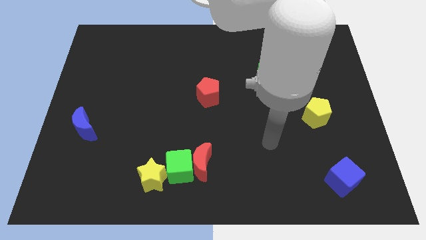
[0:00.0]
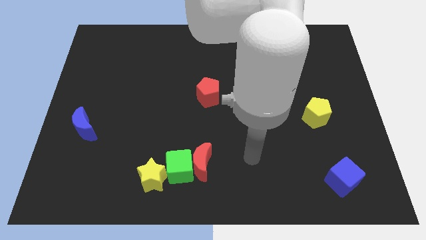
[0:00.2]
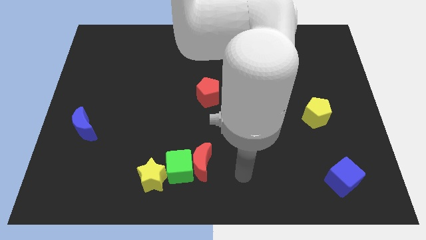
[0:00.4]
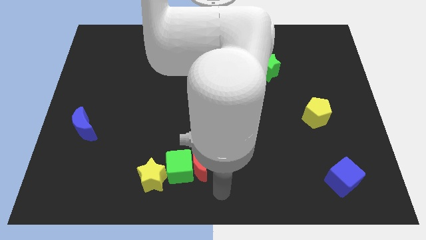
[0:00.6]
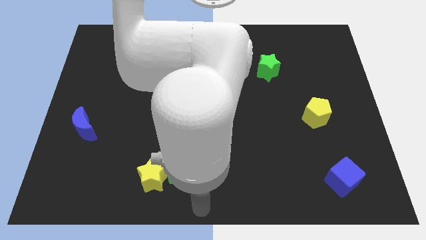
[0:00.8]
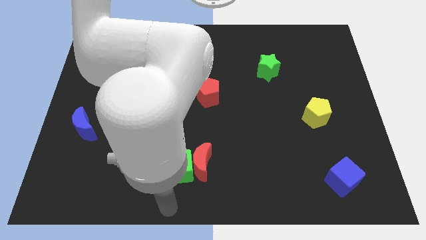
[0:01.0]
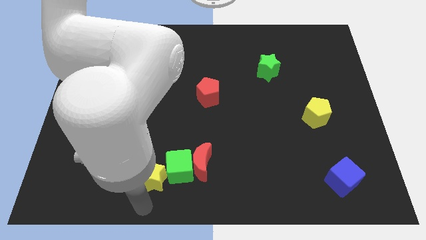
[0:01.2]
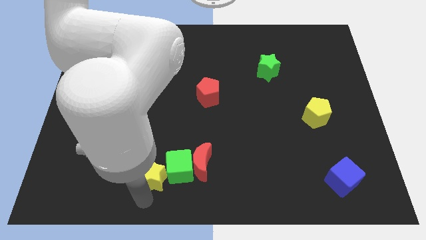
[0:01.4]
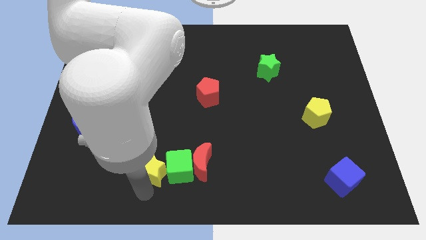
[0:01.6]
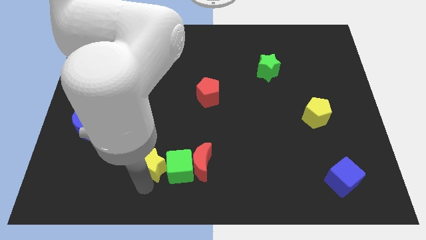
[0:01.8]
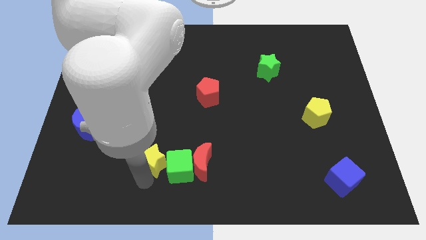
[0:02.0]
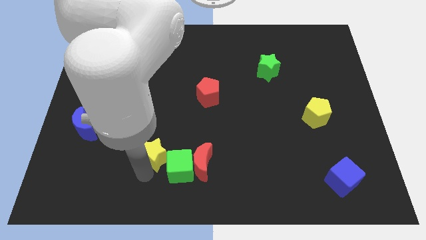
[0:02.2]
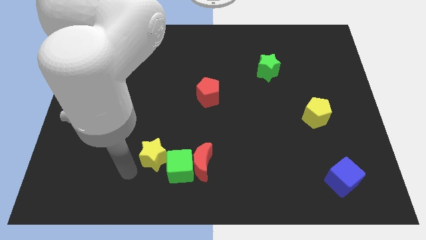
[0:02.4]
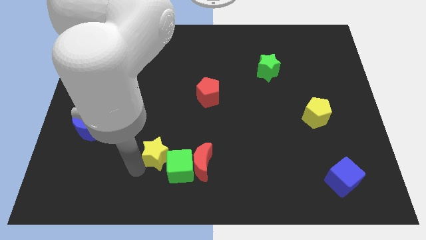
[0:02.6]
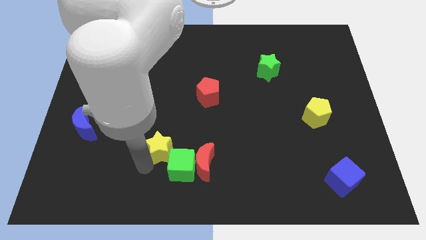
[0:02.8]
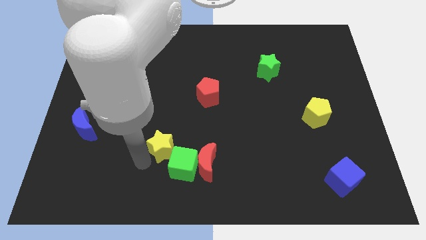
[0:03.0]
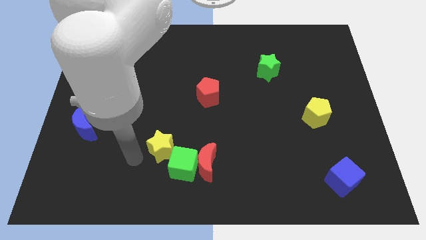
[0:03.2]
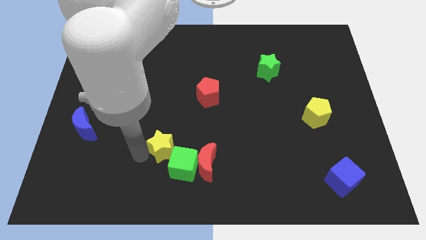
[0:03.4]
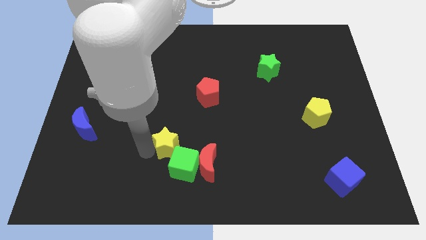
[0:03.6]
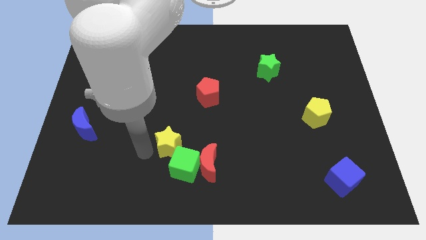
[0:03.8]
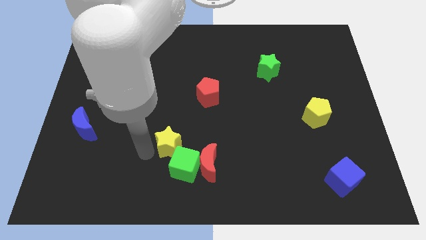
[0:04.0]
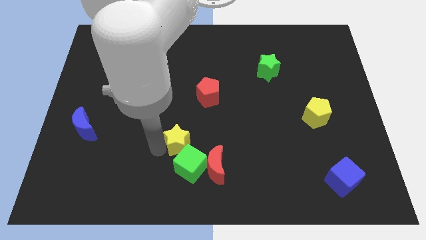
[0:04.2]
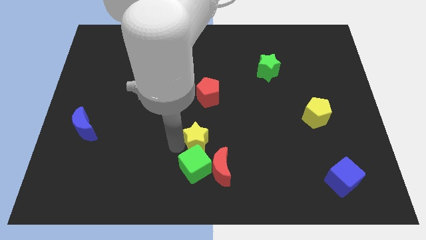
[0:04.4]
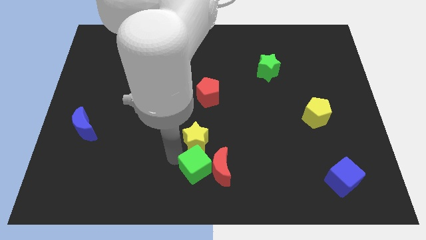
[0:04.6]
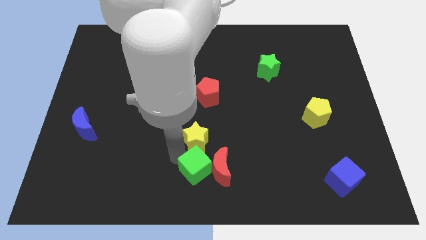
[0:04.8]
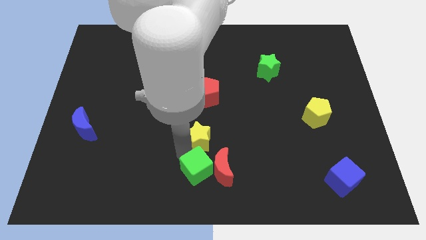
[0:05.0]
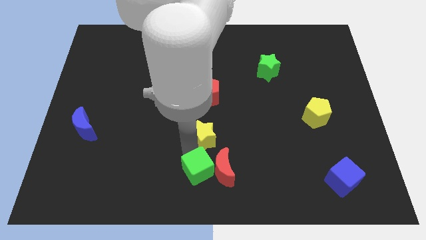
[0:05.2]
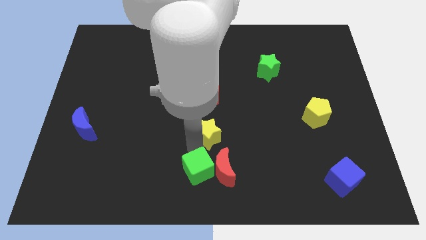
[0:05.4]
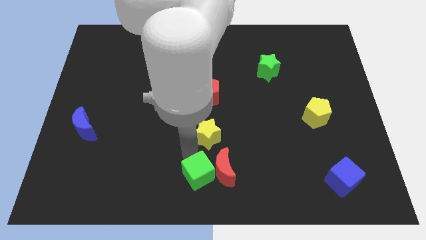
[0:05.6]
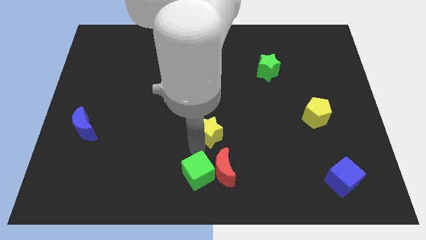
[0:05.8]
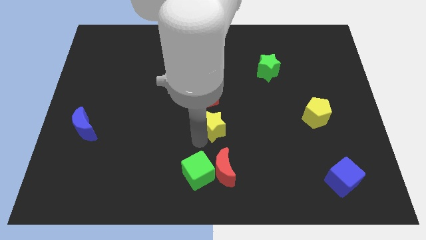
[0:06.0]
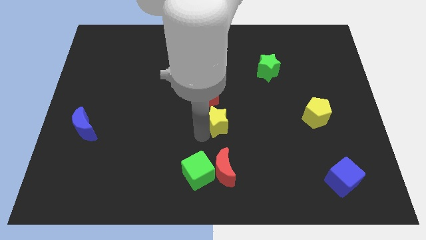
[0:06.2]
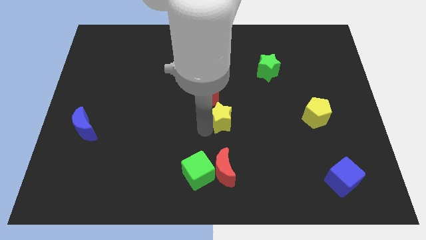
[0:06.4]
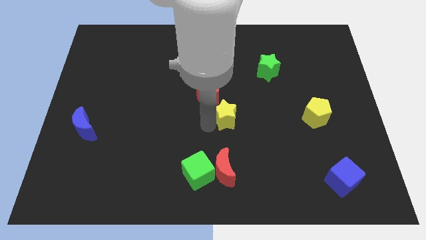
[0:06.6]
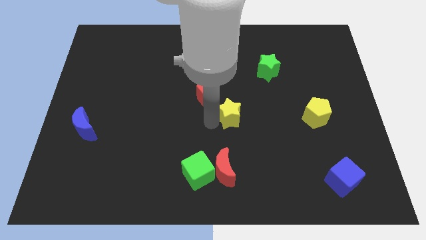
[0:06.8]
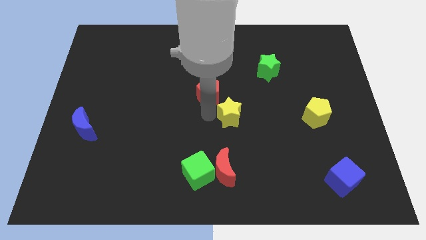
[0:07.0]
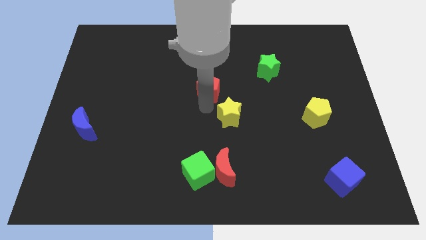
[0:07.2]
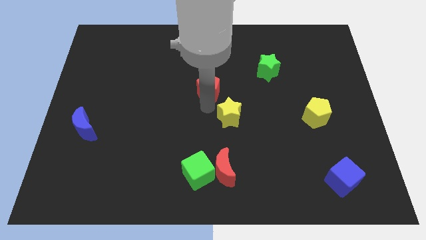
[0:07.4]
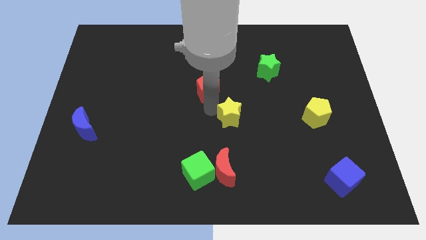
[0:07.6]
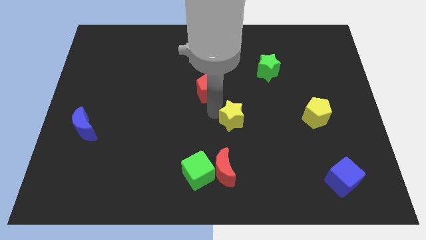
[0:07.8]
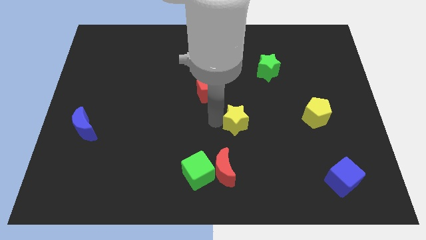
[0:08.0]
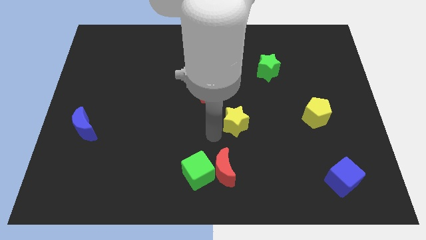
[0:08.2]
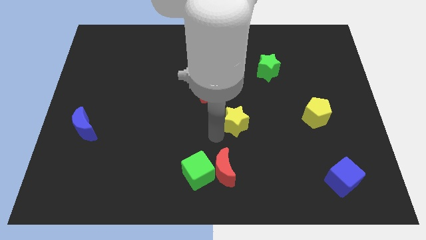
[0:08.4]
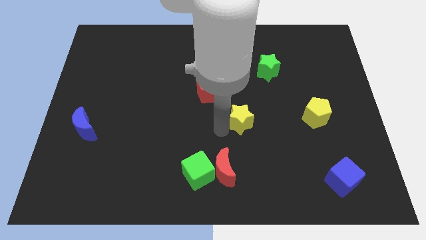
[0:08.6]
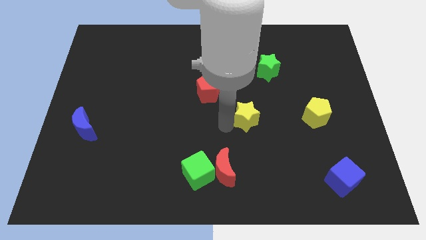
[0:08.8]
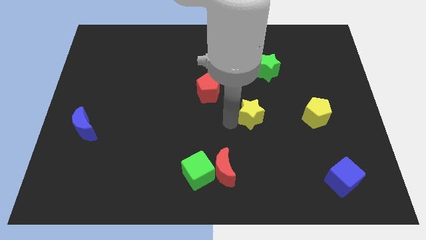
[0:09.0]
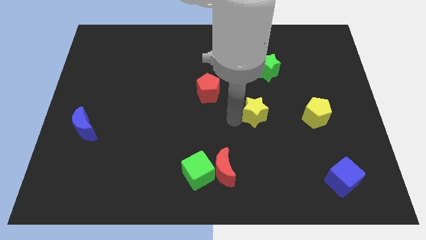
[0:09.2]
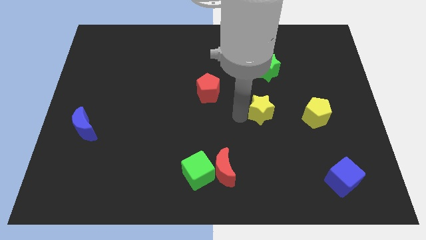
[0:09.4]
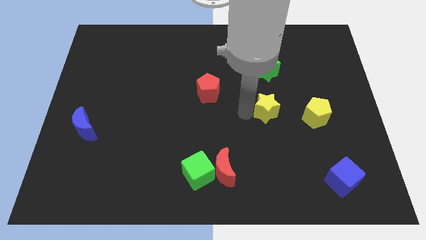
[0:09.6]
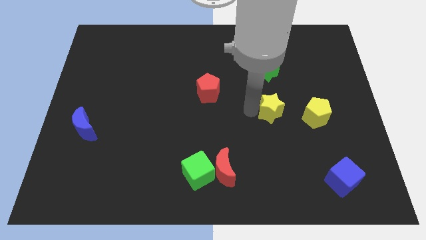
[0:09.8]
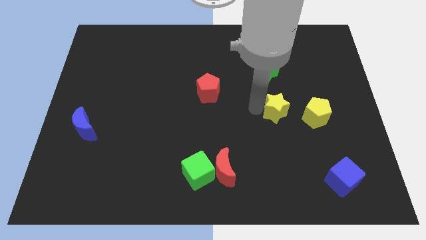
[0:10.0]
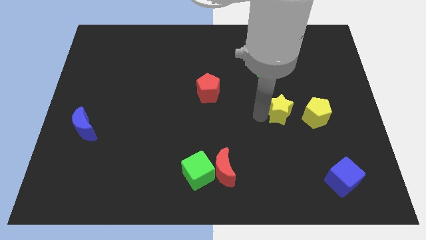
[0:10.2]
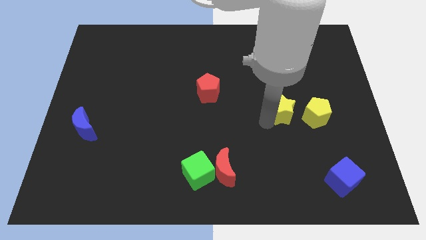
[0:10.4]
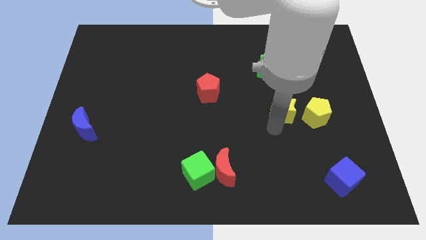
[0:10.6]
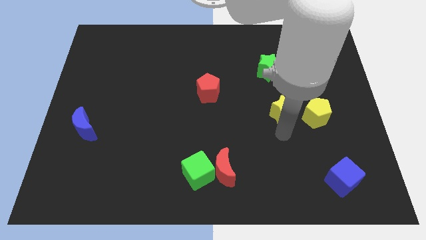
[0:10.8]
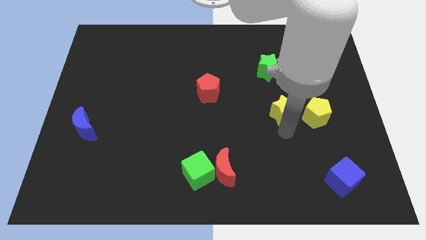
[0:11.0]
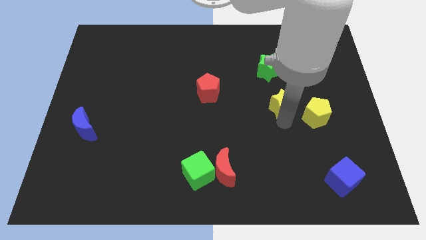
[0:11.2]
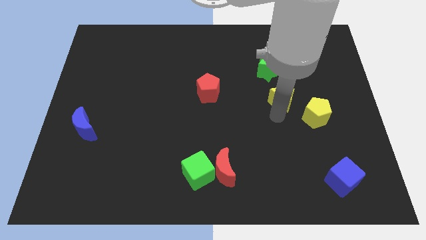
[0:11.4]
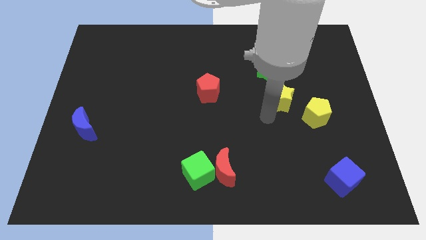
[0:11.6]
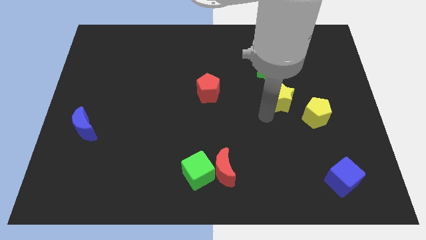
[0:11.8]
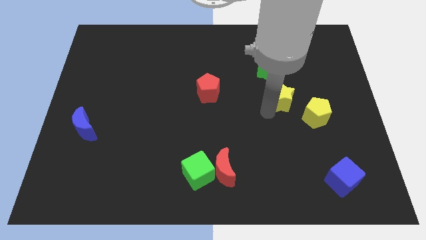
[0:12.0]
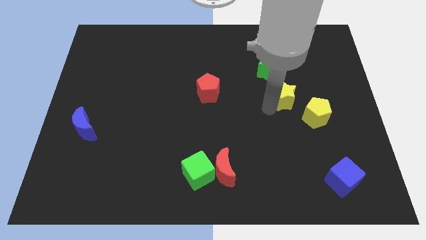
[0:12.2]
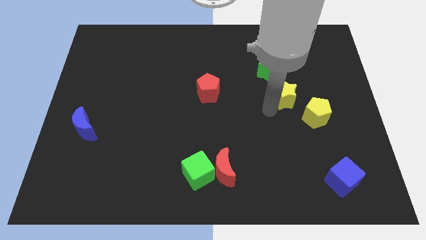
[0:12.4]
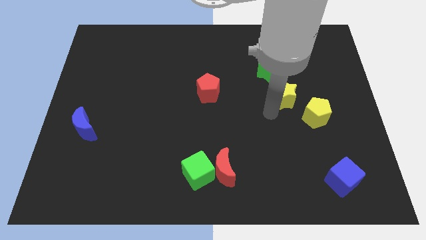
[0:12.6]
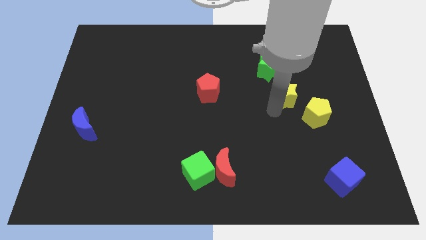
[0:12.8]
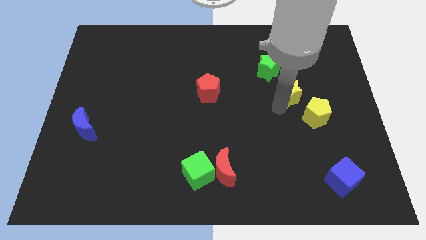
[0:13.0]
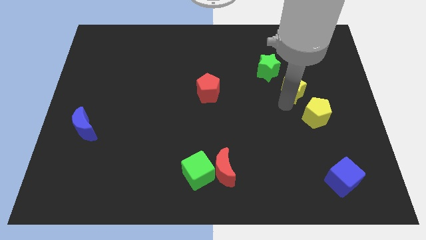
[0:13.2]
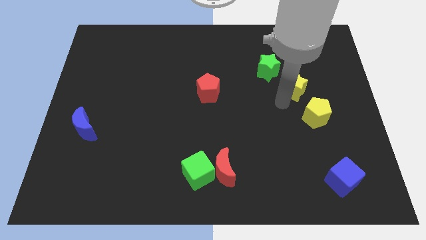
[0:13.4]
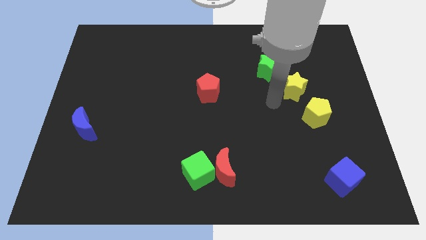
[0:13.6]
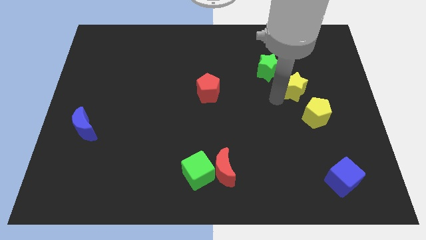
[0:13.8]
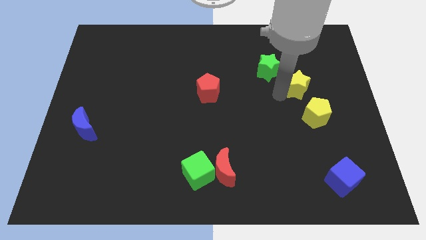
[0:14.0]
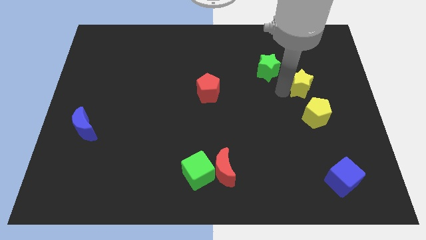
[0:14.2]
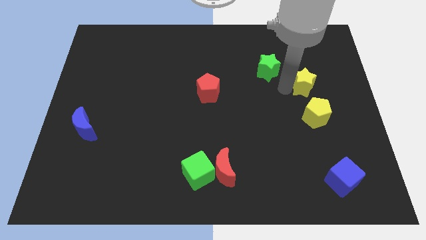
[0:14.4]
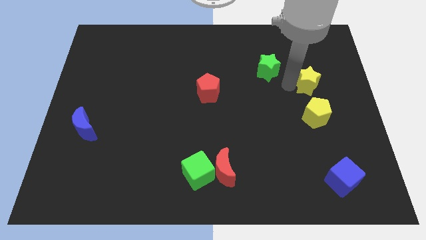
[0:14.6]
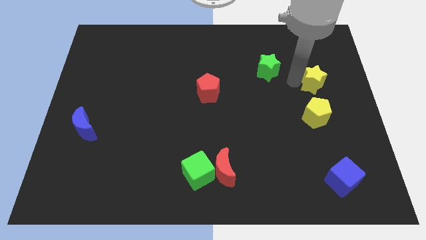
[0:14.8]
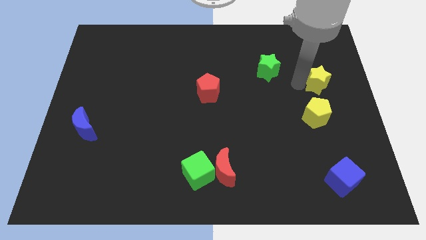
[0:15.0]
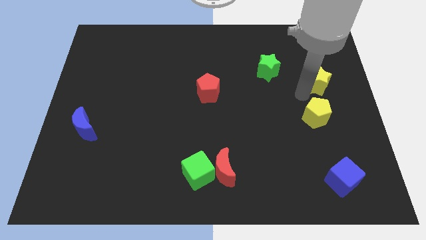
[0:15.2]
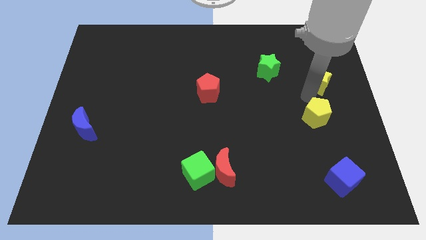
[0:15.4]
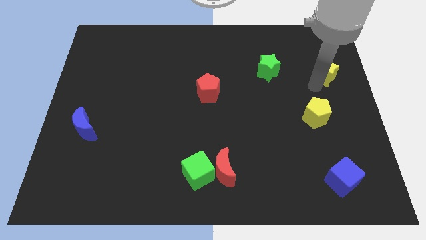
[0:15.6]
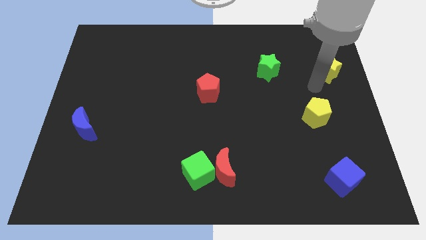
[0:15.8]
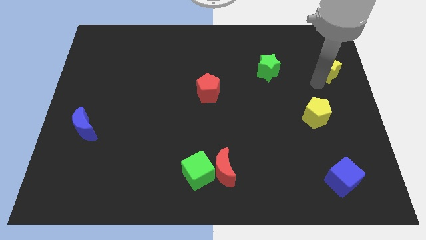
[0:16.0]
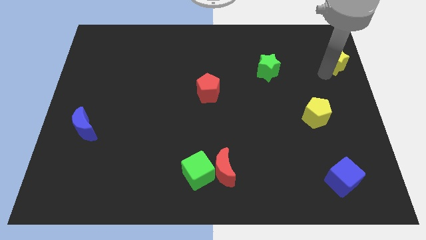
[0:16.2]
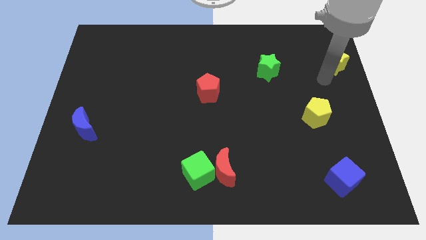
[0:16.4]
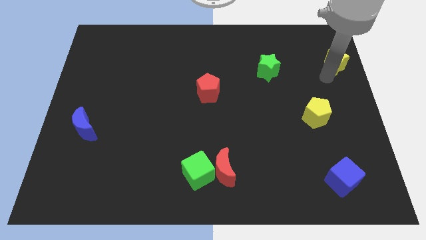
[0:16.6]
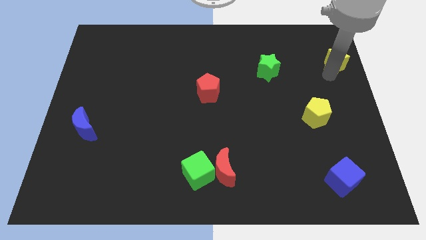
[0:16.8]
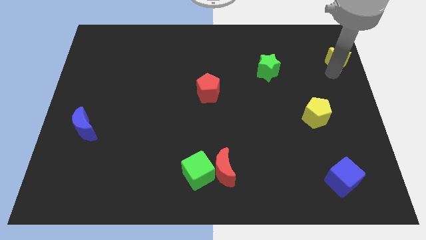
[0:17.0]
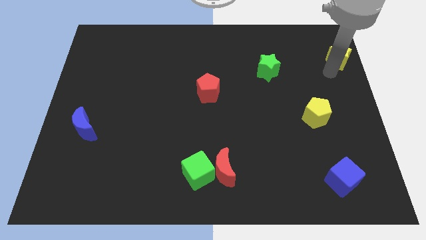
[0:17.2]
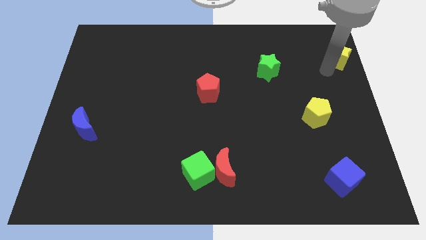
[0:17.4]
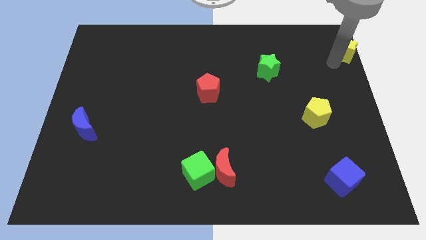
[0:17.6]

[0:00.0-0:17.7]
push the yellow star to the top right
